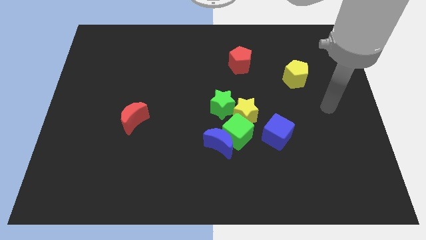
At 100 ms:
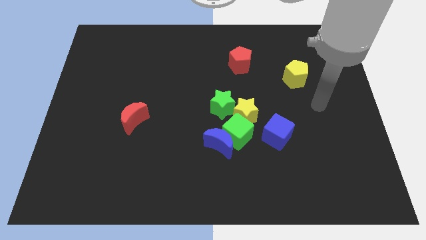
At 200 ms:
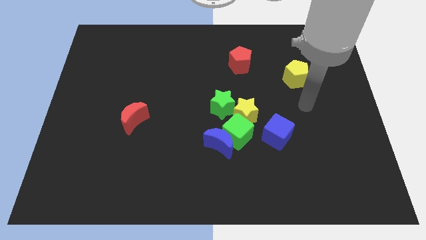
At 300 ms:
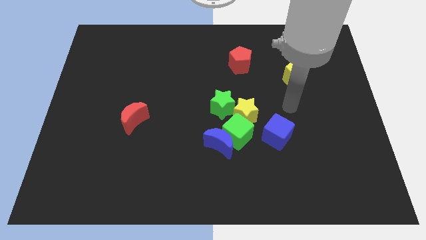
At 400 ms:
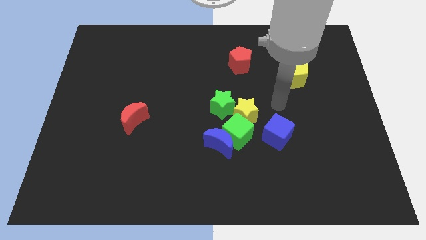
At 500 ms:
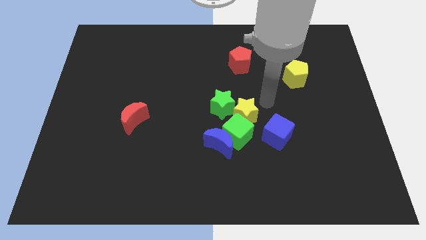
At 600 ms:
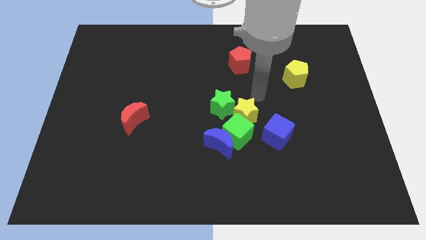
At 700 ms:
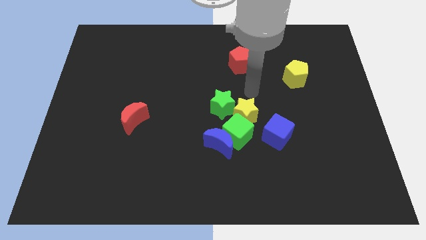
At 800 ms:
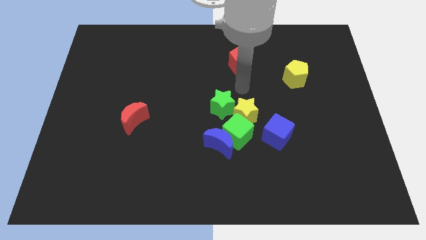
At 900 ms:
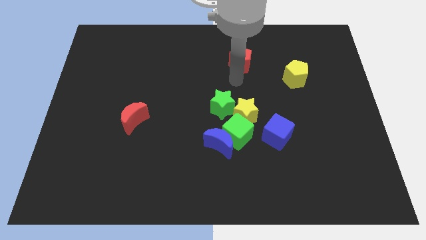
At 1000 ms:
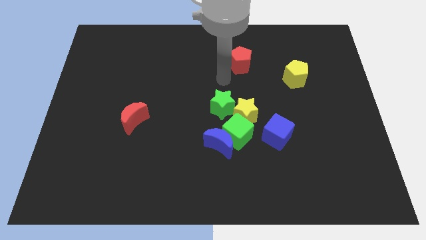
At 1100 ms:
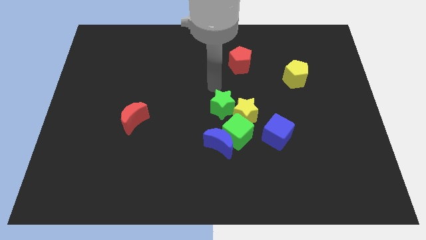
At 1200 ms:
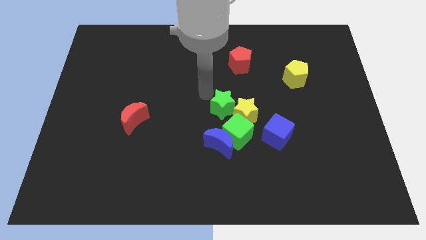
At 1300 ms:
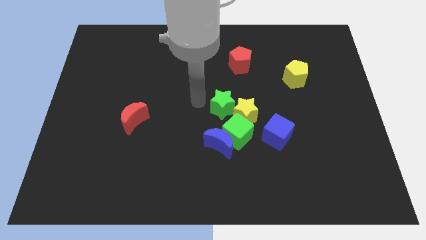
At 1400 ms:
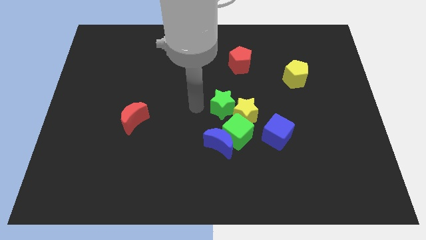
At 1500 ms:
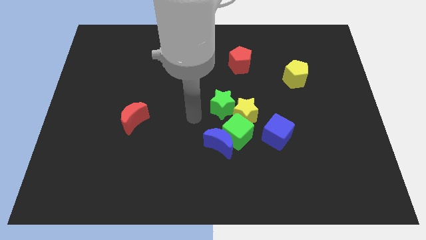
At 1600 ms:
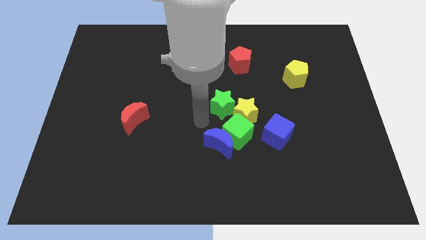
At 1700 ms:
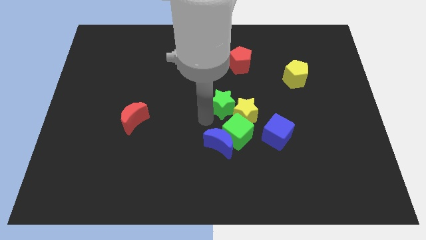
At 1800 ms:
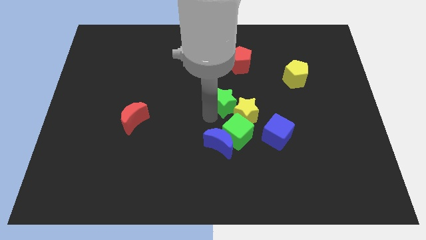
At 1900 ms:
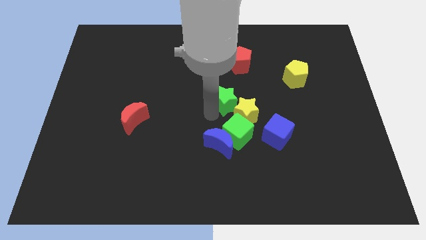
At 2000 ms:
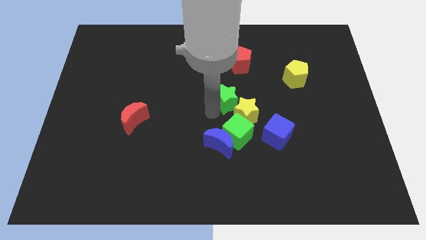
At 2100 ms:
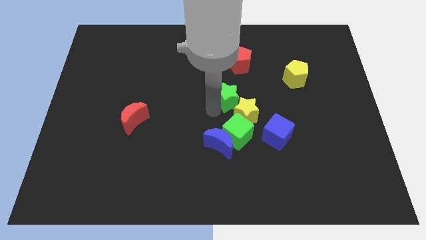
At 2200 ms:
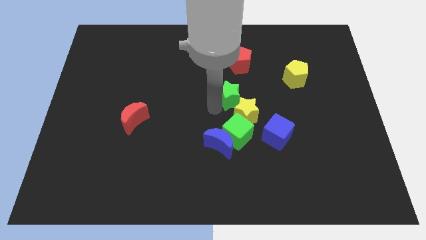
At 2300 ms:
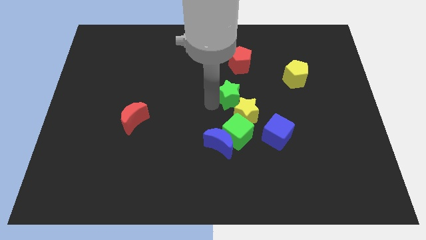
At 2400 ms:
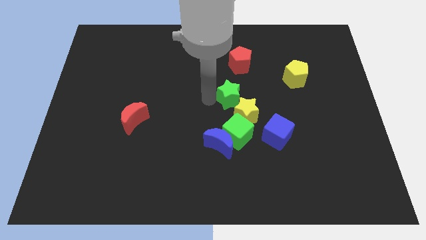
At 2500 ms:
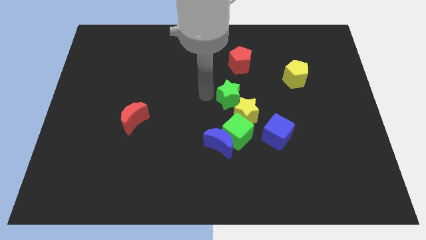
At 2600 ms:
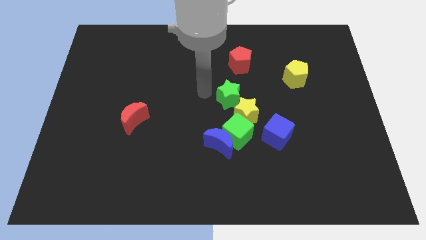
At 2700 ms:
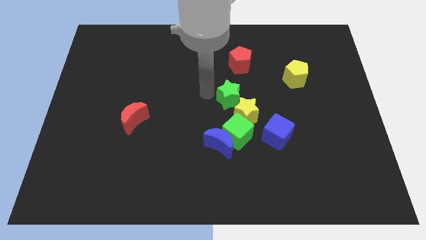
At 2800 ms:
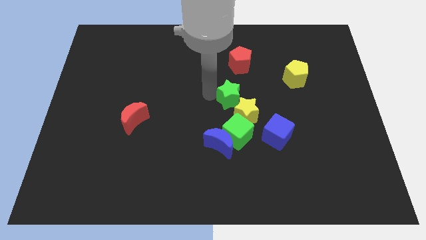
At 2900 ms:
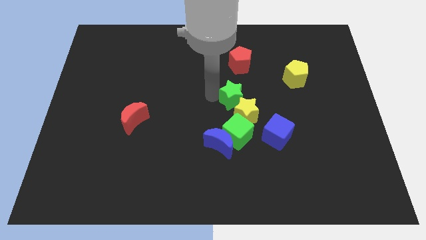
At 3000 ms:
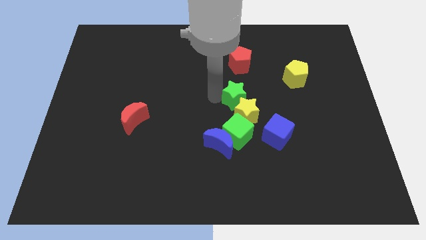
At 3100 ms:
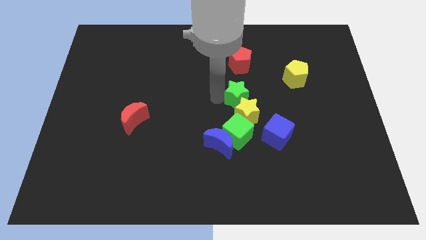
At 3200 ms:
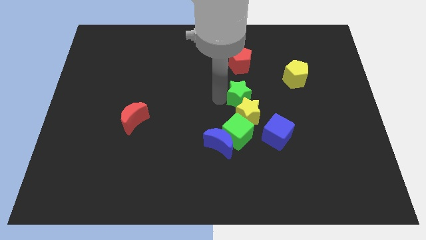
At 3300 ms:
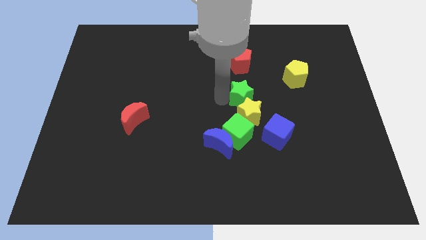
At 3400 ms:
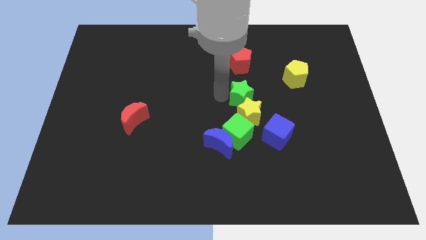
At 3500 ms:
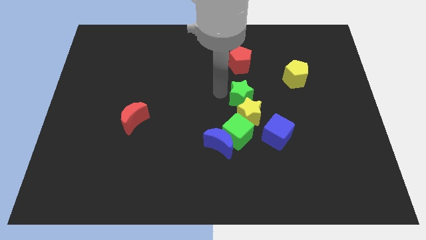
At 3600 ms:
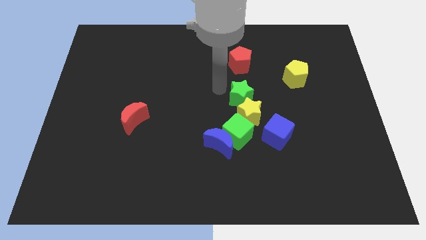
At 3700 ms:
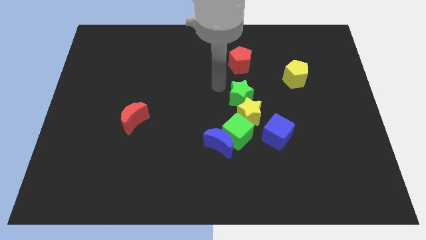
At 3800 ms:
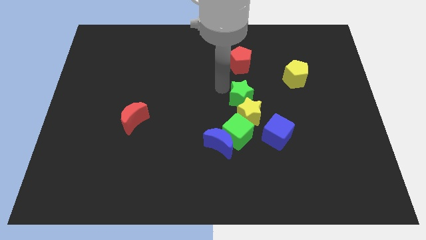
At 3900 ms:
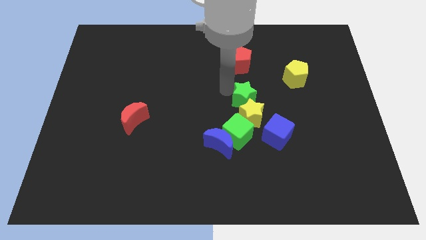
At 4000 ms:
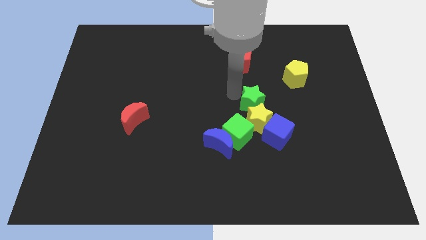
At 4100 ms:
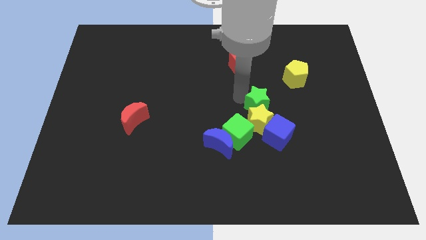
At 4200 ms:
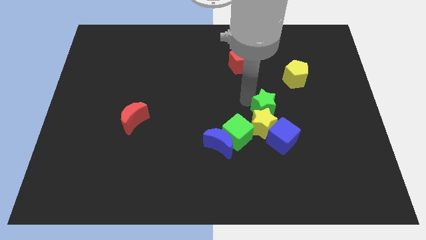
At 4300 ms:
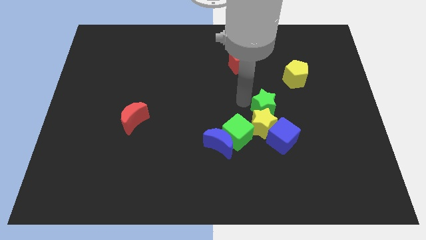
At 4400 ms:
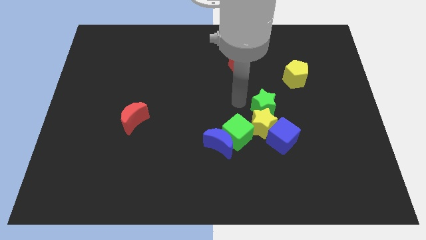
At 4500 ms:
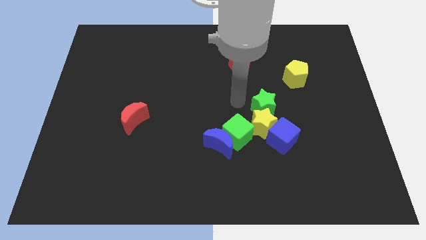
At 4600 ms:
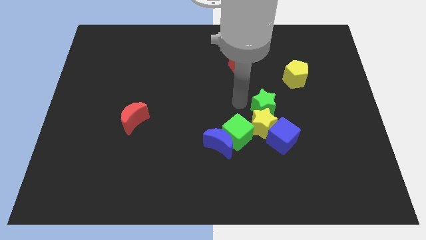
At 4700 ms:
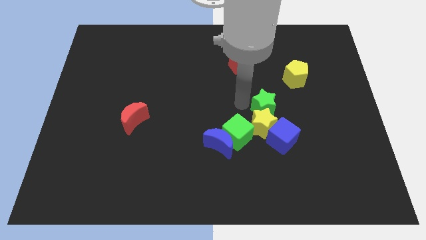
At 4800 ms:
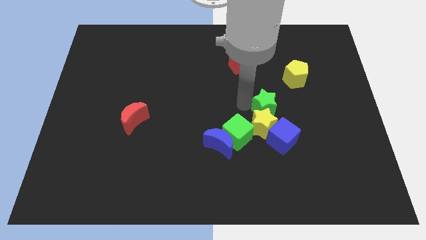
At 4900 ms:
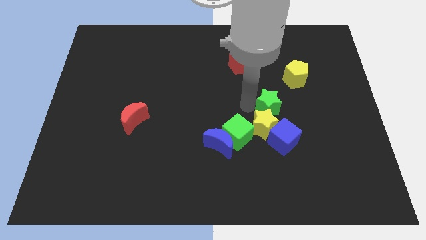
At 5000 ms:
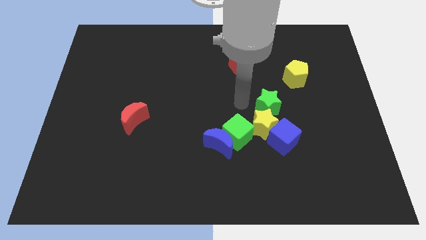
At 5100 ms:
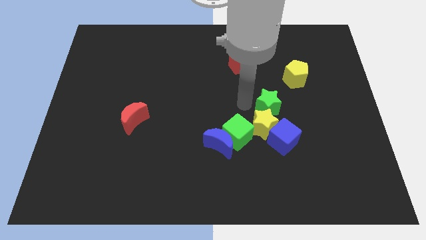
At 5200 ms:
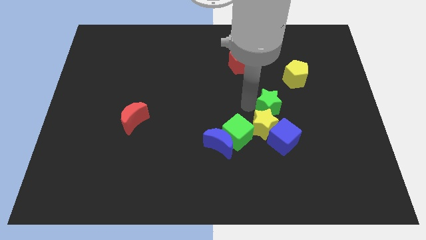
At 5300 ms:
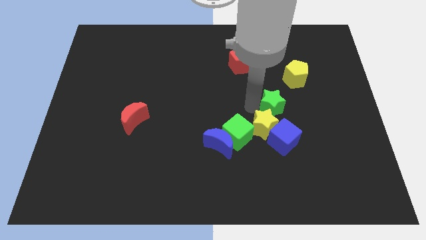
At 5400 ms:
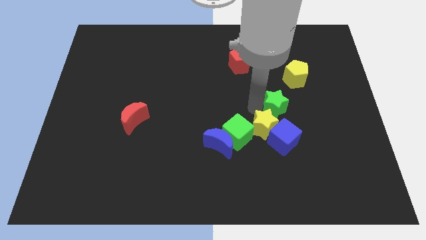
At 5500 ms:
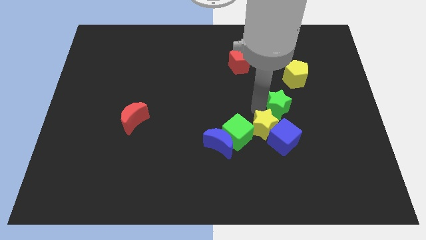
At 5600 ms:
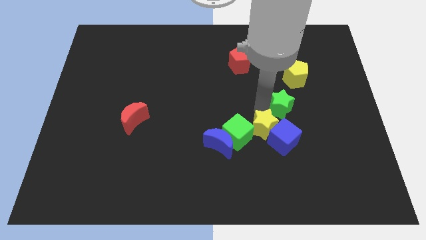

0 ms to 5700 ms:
put the green star to the bottom side of the yellow pentagon

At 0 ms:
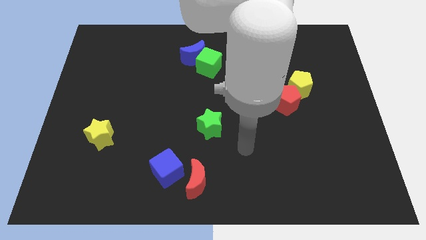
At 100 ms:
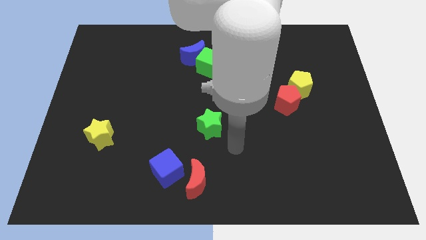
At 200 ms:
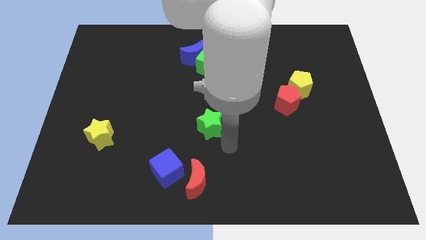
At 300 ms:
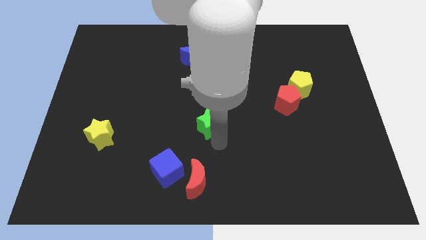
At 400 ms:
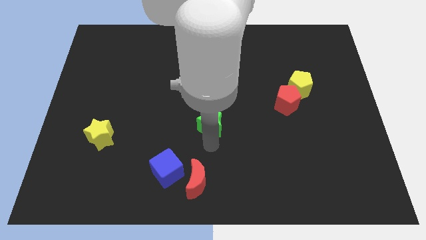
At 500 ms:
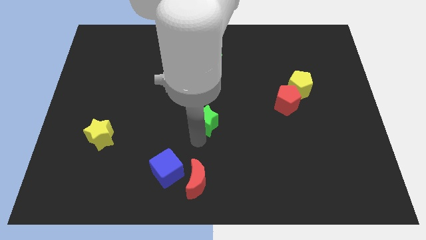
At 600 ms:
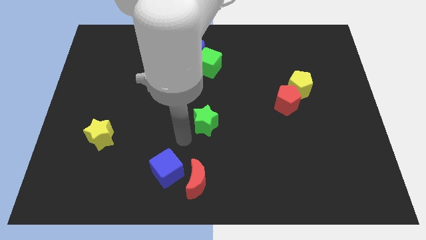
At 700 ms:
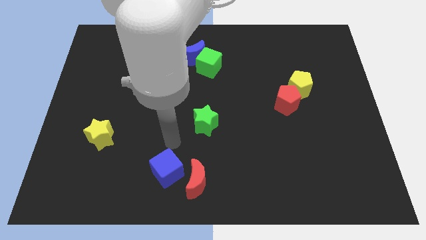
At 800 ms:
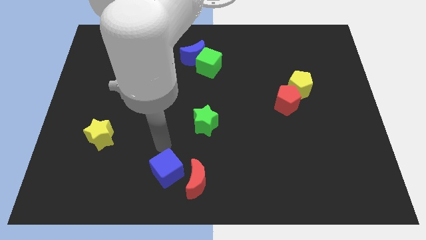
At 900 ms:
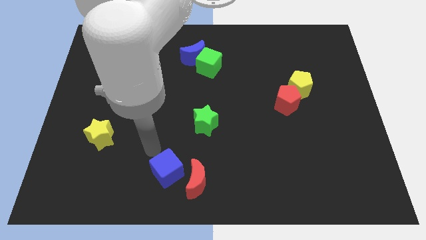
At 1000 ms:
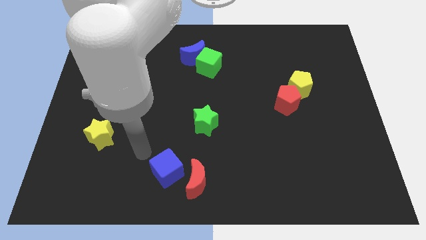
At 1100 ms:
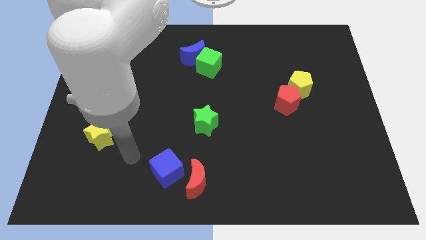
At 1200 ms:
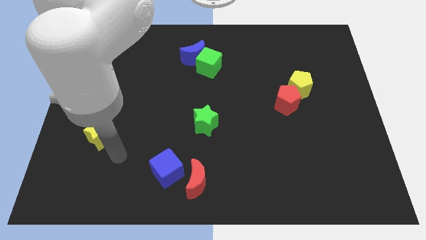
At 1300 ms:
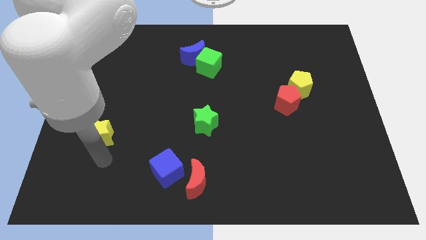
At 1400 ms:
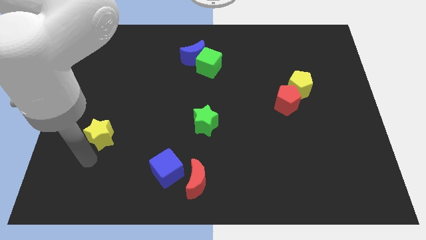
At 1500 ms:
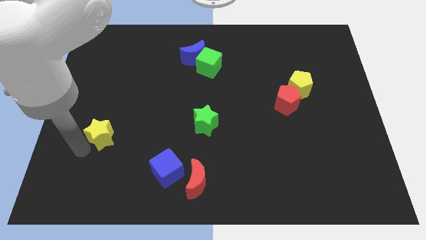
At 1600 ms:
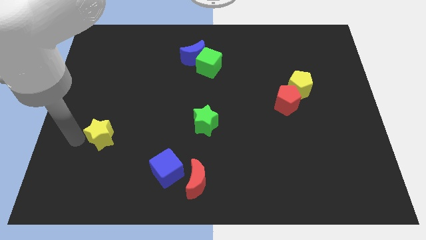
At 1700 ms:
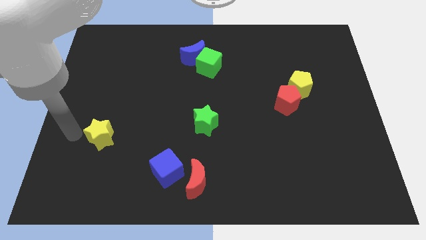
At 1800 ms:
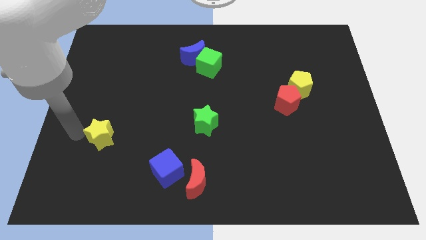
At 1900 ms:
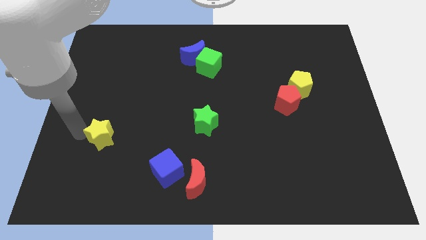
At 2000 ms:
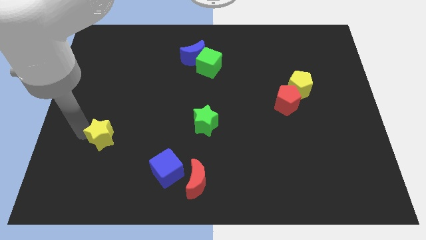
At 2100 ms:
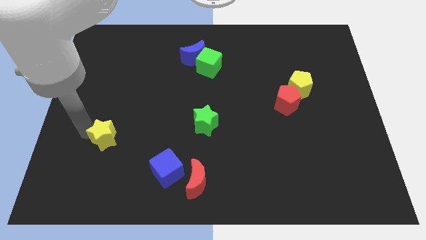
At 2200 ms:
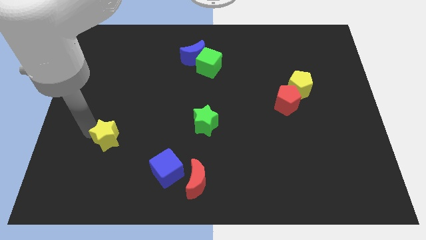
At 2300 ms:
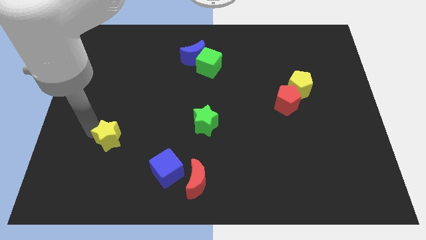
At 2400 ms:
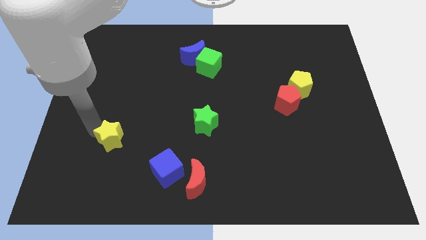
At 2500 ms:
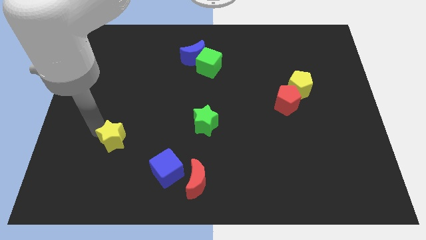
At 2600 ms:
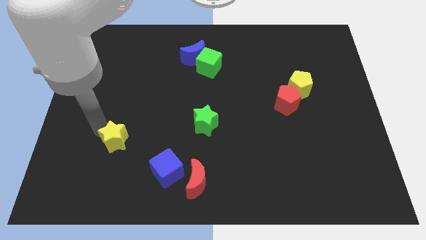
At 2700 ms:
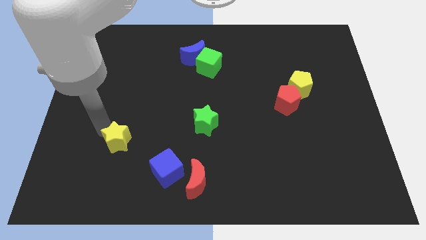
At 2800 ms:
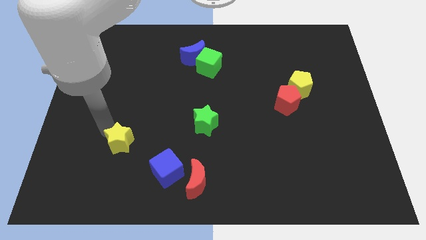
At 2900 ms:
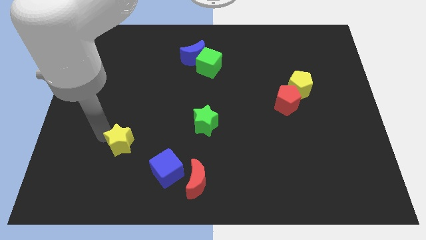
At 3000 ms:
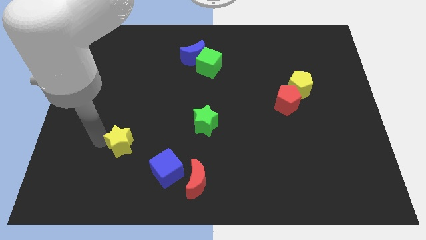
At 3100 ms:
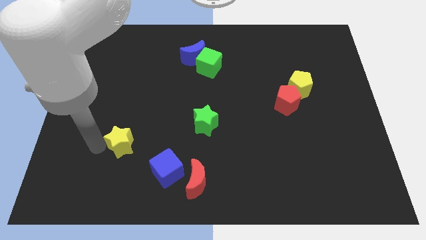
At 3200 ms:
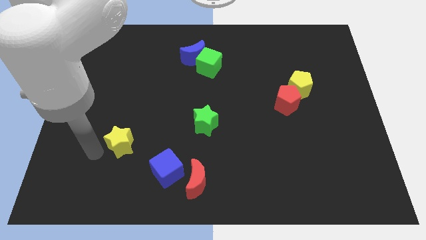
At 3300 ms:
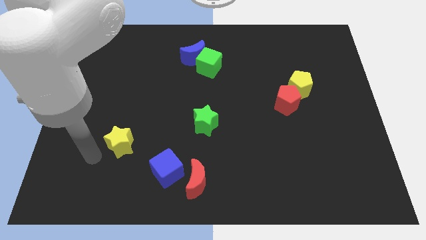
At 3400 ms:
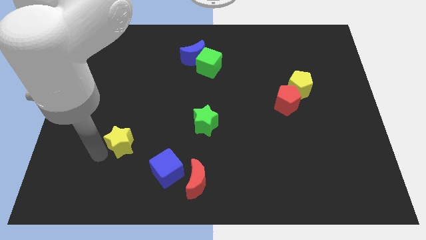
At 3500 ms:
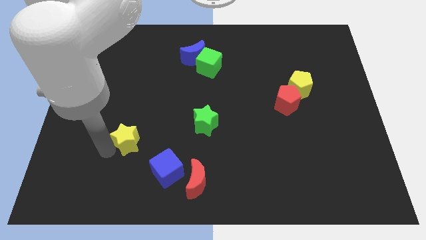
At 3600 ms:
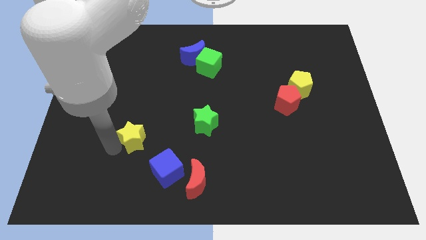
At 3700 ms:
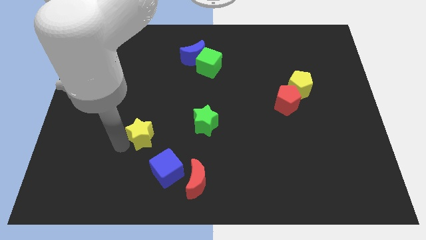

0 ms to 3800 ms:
push the yellow star just left of the green star
